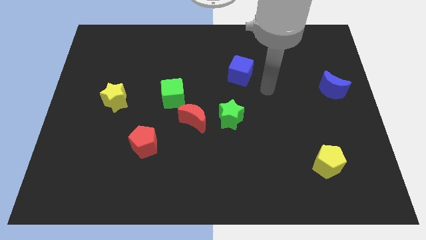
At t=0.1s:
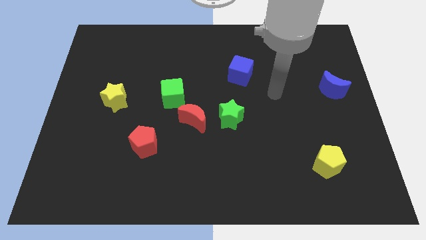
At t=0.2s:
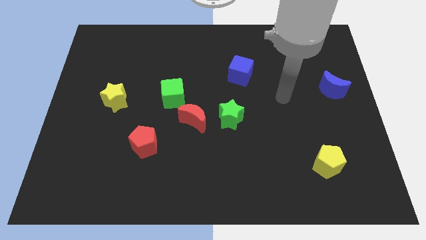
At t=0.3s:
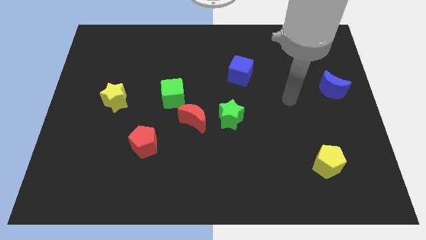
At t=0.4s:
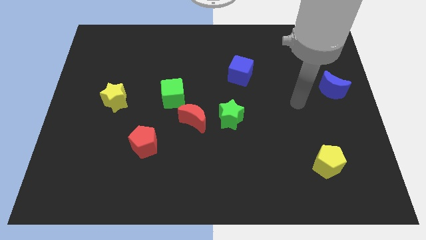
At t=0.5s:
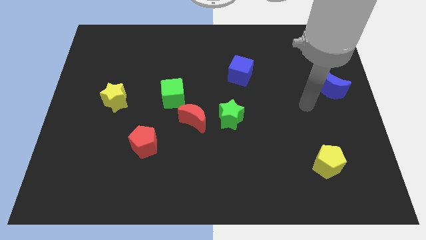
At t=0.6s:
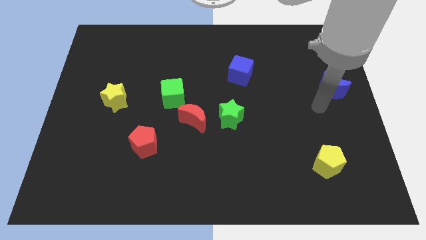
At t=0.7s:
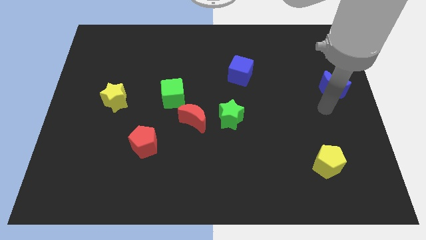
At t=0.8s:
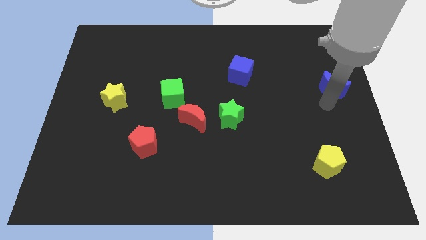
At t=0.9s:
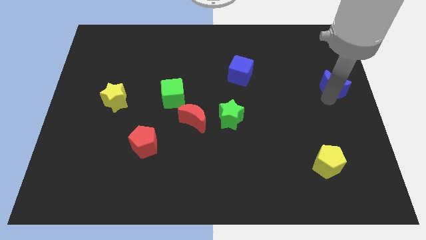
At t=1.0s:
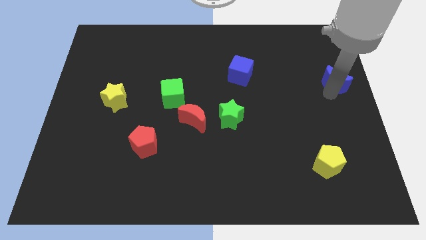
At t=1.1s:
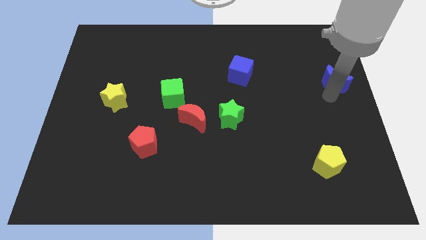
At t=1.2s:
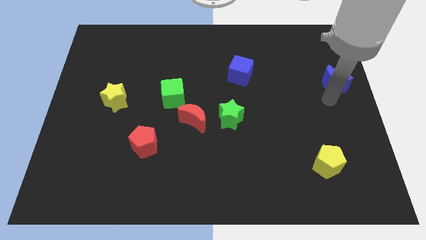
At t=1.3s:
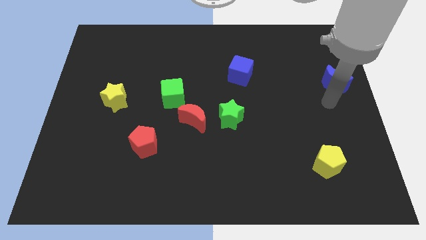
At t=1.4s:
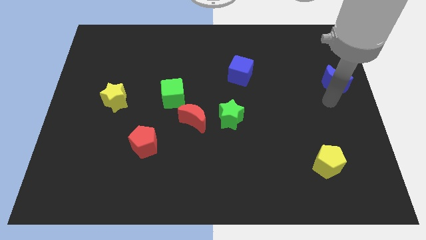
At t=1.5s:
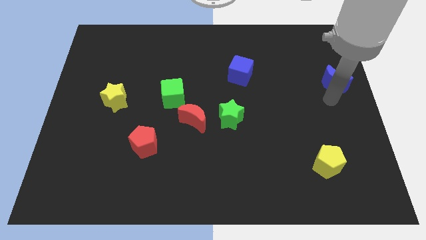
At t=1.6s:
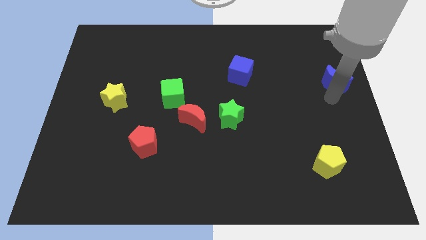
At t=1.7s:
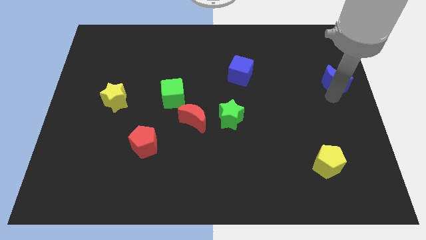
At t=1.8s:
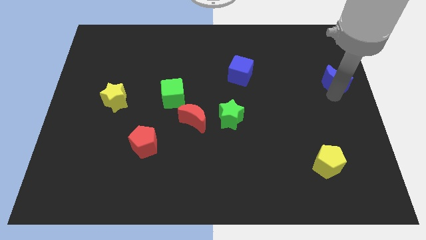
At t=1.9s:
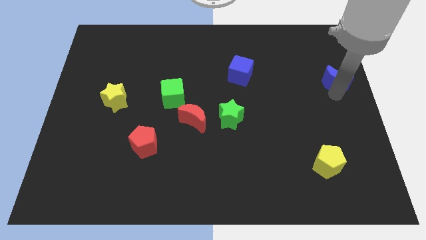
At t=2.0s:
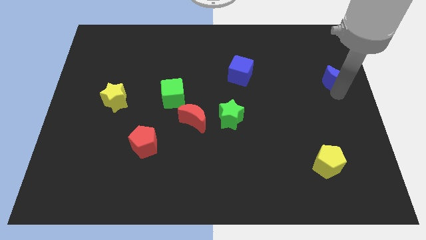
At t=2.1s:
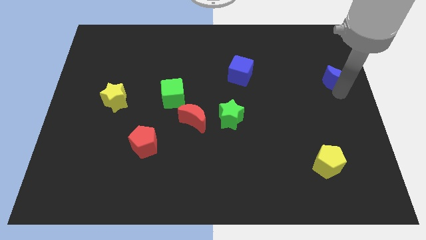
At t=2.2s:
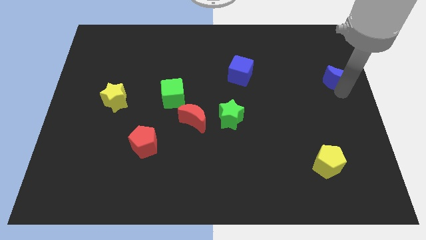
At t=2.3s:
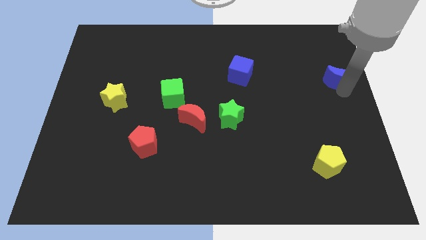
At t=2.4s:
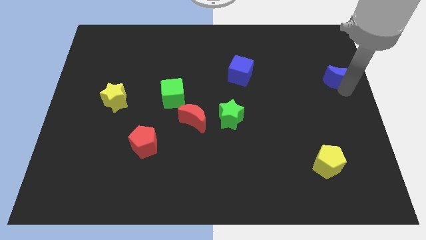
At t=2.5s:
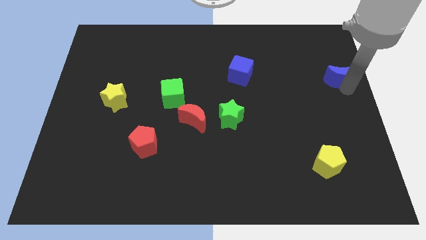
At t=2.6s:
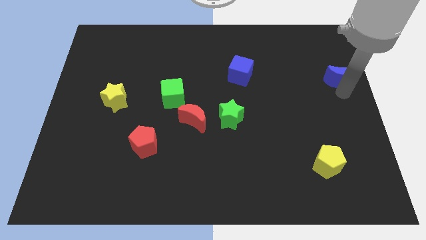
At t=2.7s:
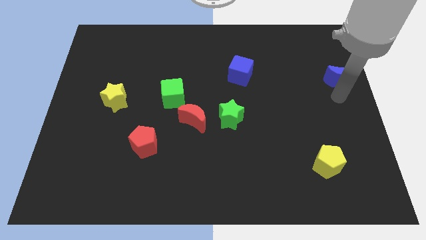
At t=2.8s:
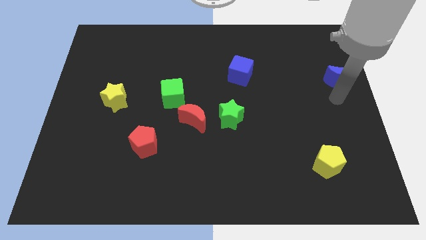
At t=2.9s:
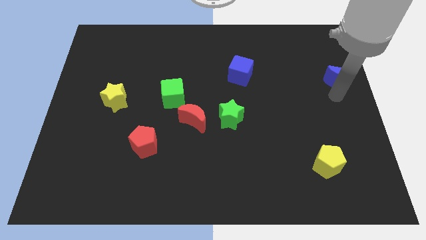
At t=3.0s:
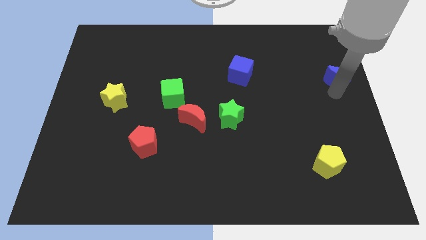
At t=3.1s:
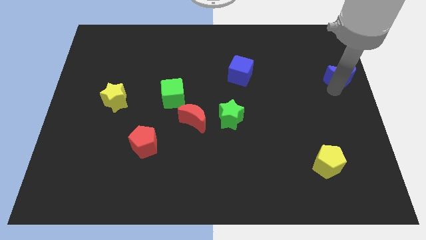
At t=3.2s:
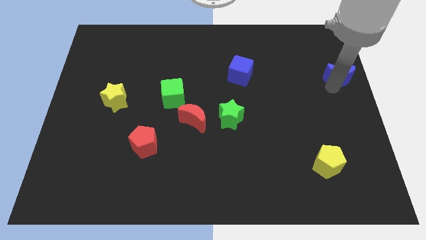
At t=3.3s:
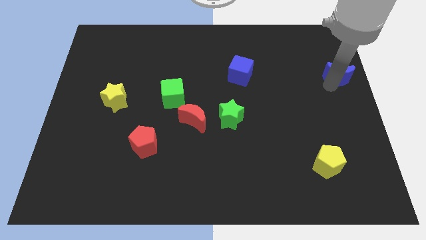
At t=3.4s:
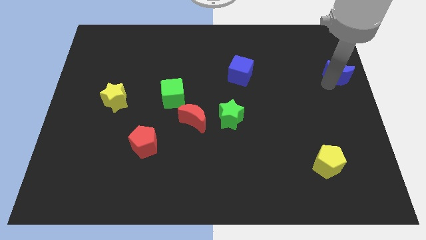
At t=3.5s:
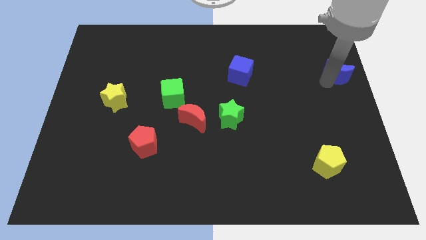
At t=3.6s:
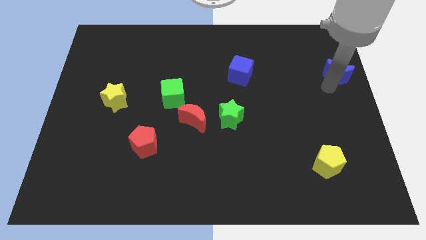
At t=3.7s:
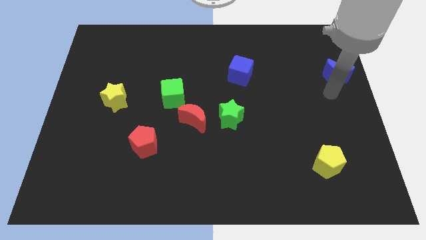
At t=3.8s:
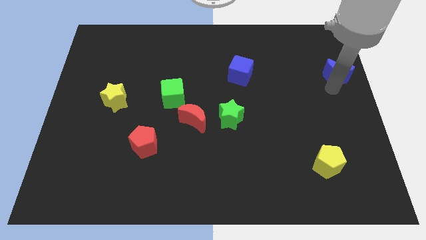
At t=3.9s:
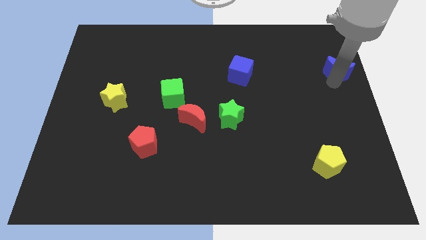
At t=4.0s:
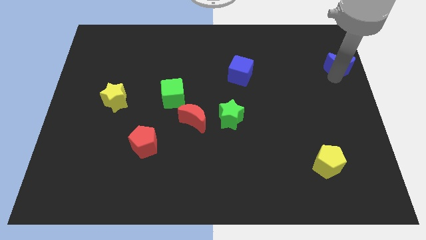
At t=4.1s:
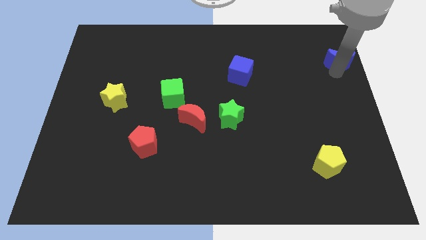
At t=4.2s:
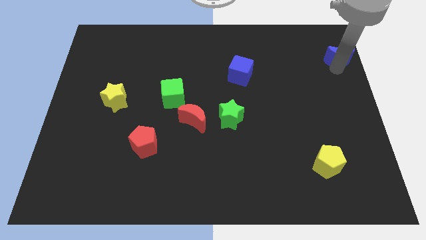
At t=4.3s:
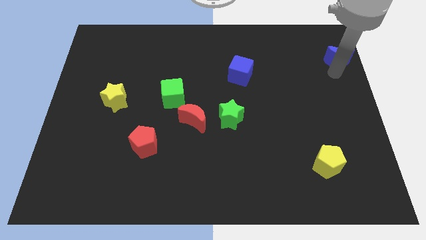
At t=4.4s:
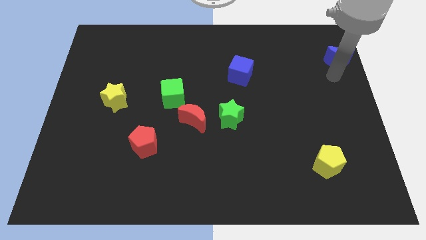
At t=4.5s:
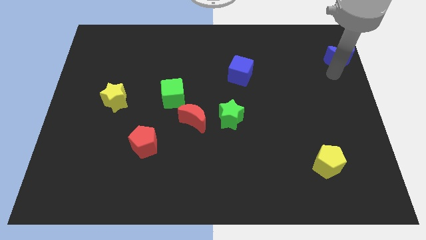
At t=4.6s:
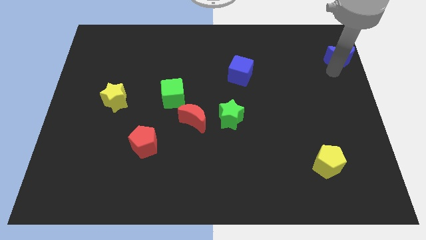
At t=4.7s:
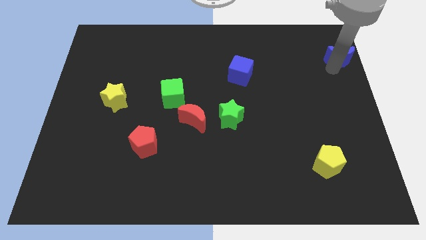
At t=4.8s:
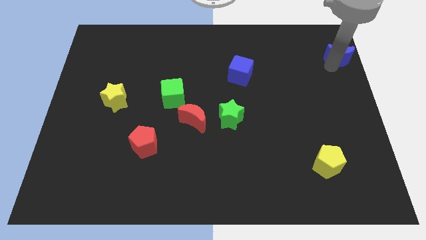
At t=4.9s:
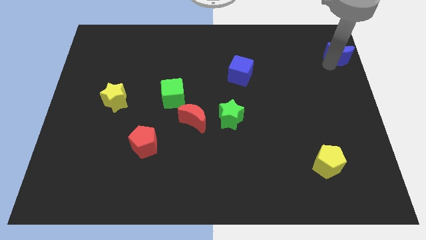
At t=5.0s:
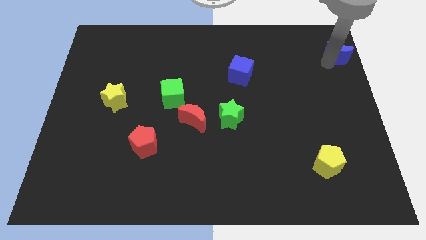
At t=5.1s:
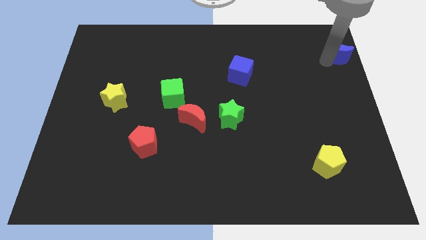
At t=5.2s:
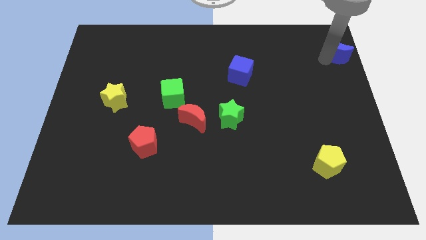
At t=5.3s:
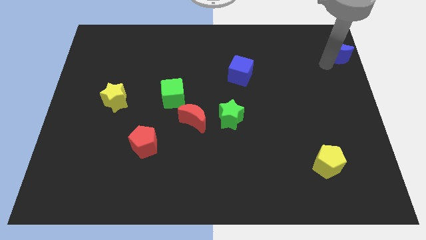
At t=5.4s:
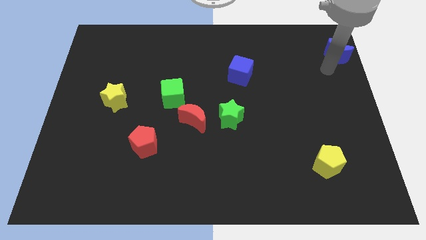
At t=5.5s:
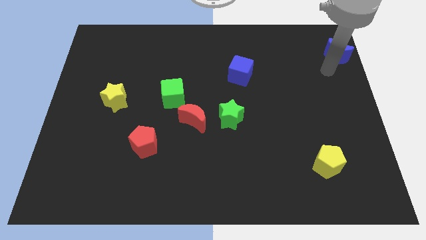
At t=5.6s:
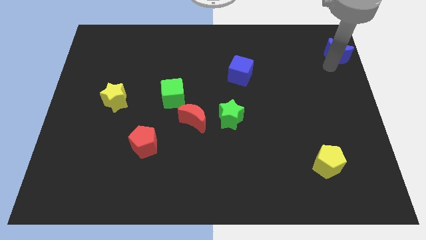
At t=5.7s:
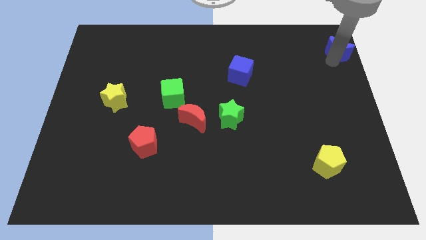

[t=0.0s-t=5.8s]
put the blue moon to the upper right corner
